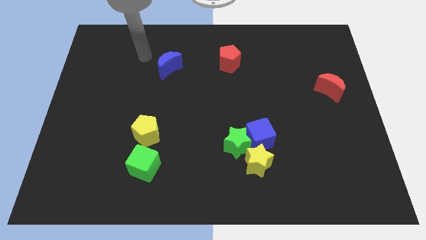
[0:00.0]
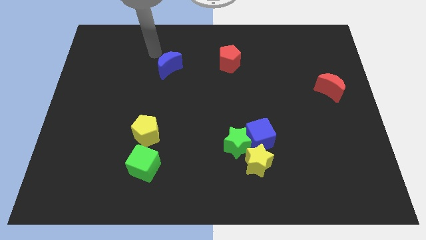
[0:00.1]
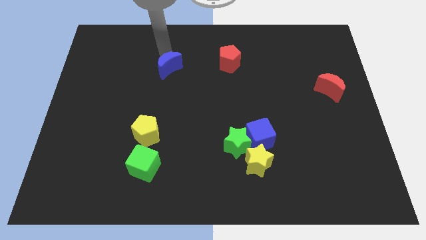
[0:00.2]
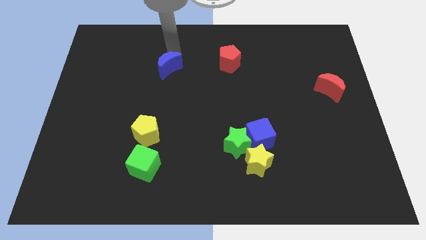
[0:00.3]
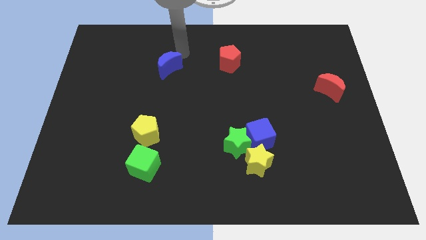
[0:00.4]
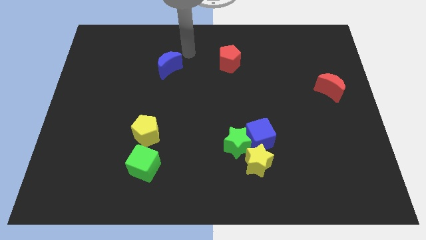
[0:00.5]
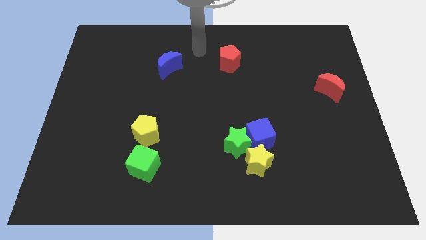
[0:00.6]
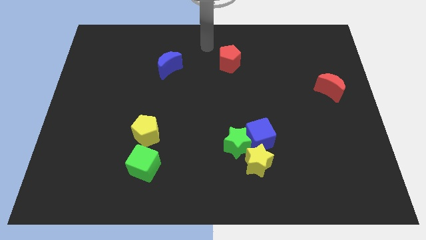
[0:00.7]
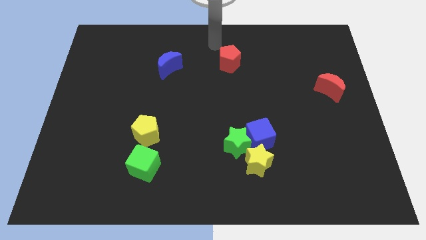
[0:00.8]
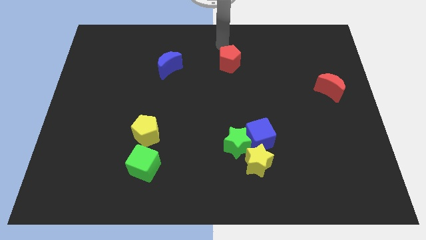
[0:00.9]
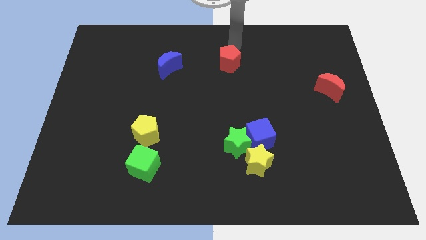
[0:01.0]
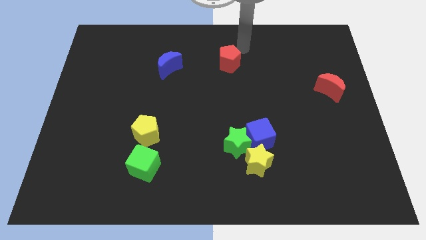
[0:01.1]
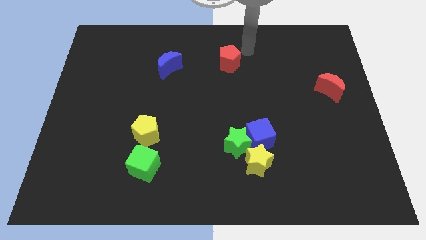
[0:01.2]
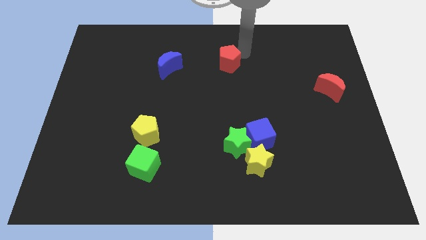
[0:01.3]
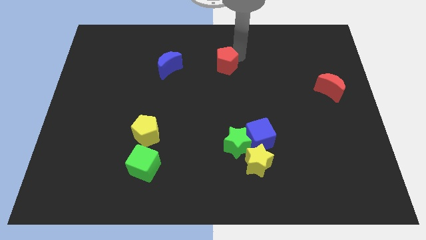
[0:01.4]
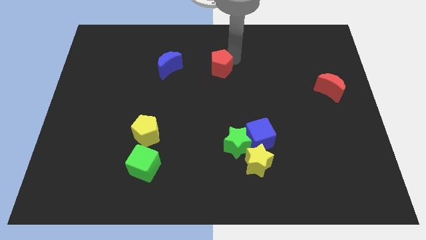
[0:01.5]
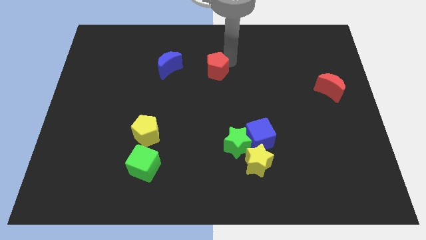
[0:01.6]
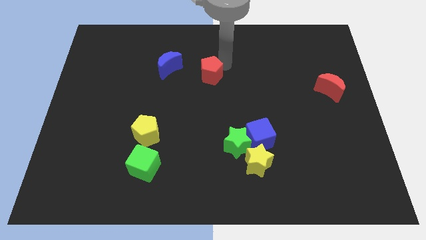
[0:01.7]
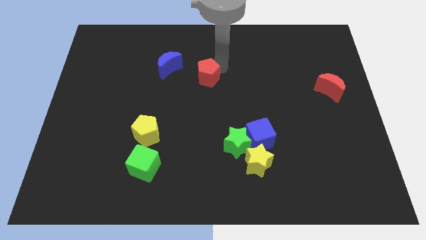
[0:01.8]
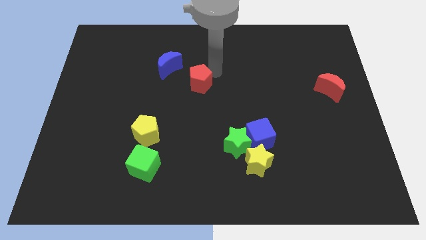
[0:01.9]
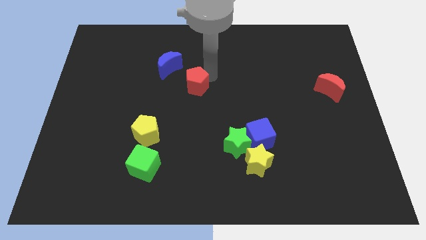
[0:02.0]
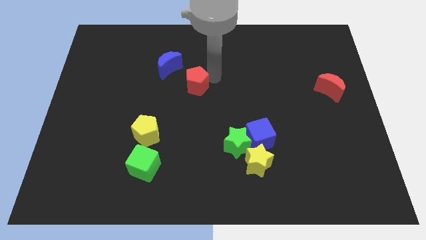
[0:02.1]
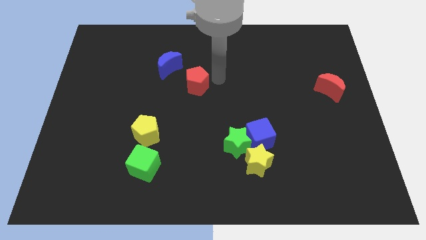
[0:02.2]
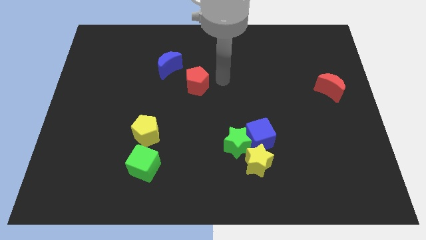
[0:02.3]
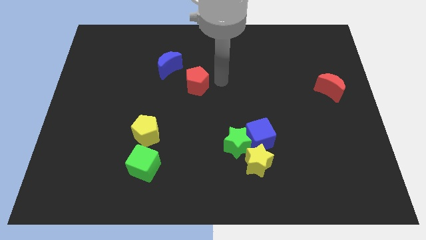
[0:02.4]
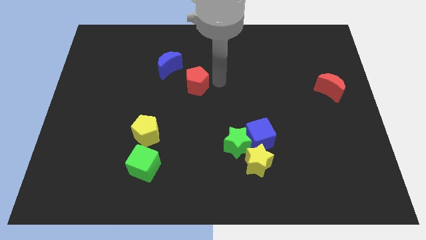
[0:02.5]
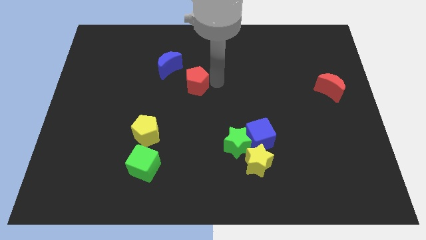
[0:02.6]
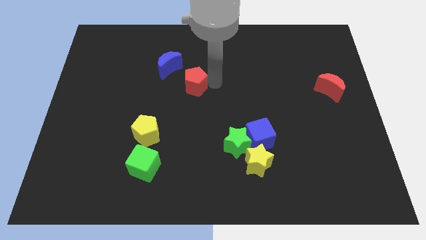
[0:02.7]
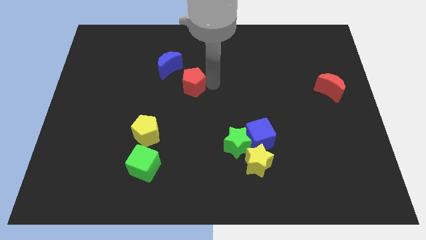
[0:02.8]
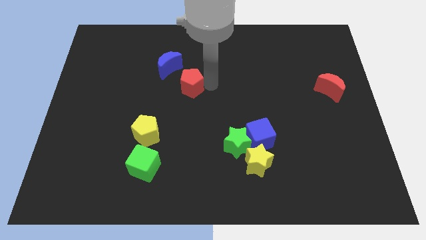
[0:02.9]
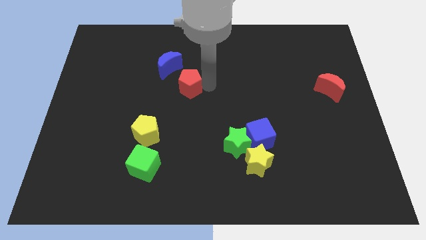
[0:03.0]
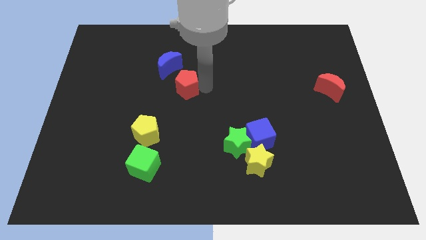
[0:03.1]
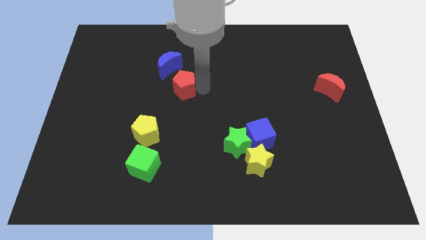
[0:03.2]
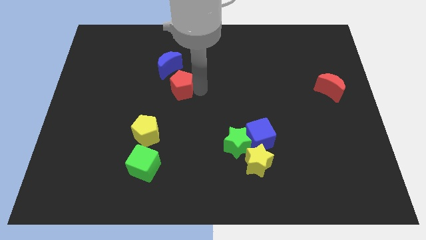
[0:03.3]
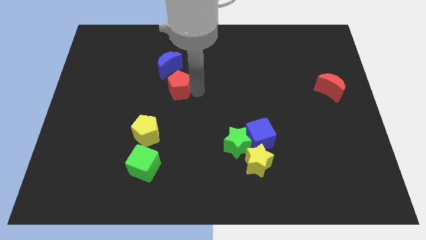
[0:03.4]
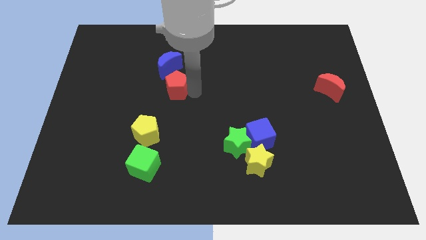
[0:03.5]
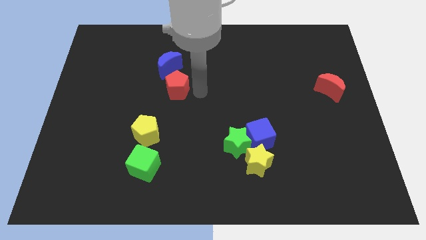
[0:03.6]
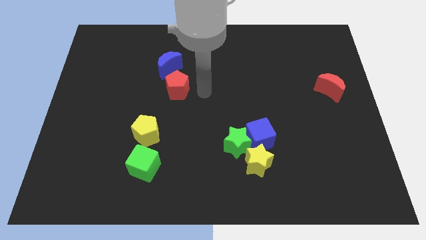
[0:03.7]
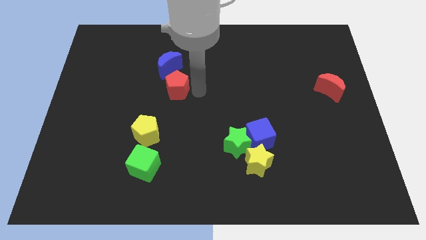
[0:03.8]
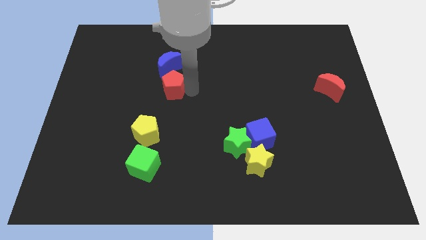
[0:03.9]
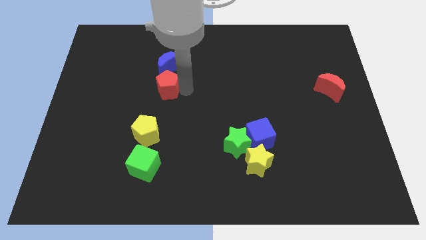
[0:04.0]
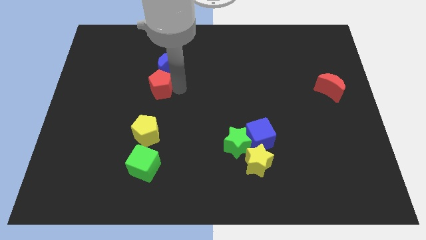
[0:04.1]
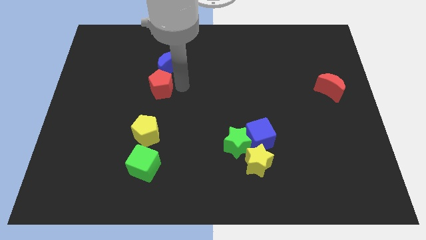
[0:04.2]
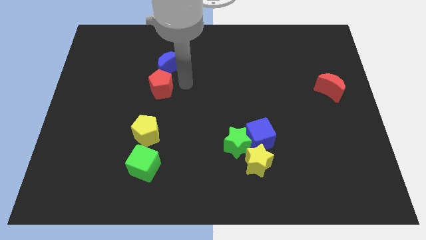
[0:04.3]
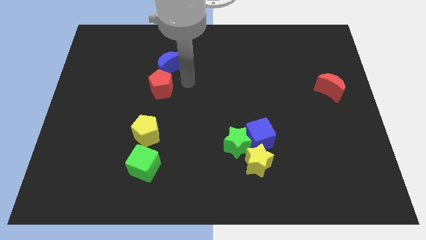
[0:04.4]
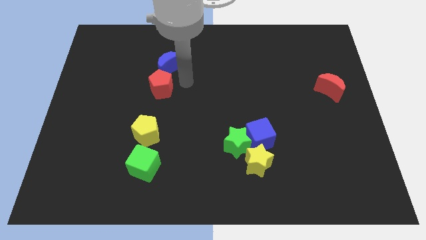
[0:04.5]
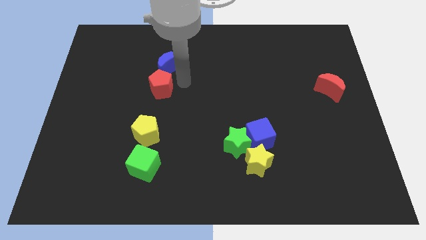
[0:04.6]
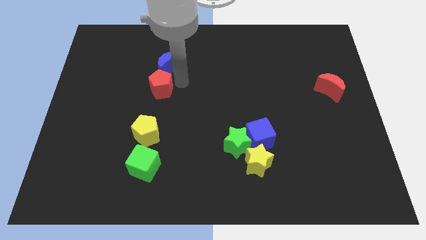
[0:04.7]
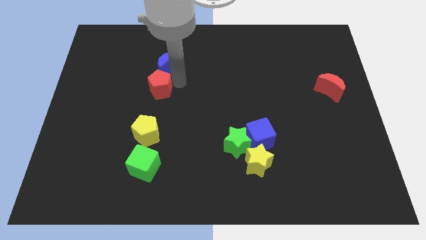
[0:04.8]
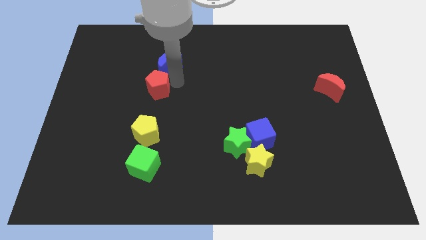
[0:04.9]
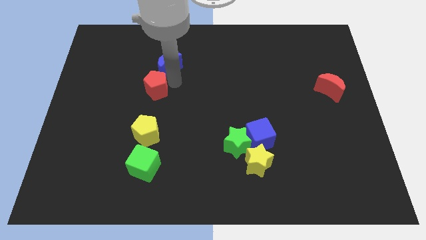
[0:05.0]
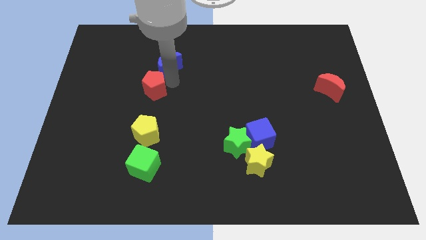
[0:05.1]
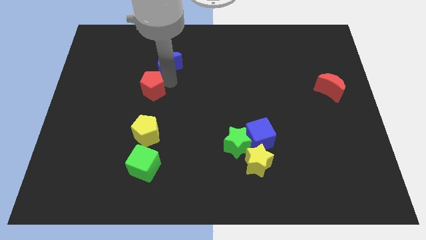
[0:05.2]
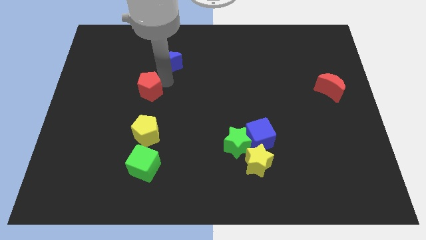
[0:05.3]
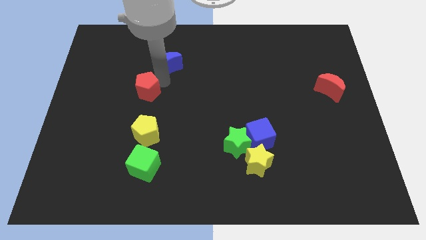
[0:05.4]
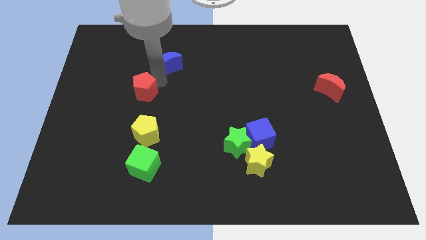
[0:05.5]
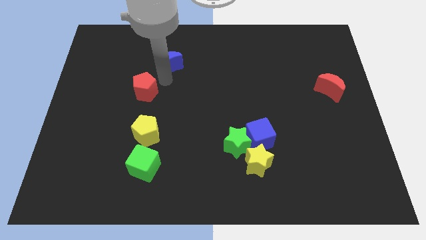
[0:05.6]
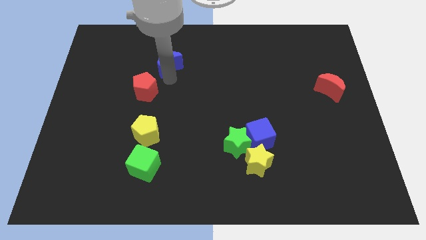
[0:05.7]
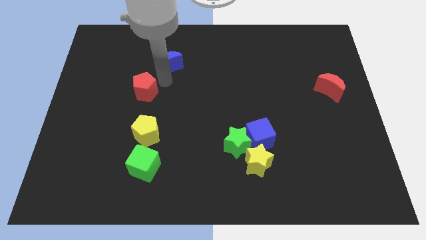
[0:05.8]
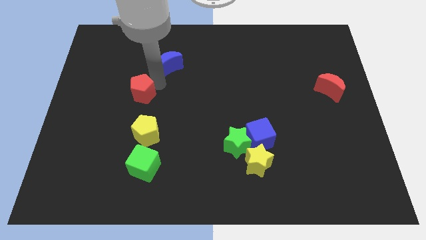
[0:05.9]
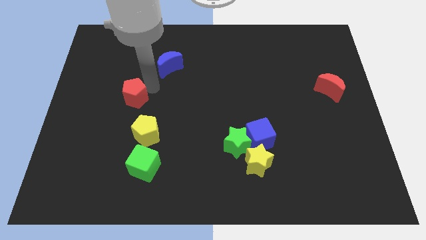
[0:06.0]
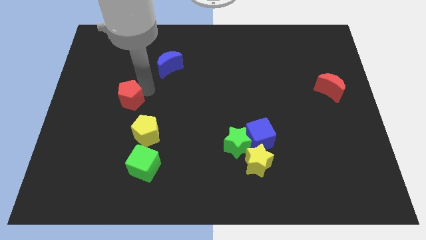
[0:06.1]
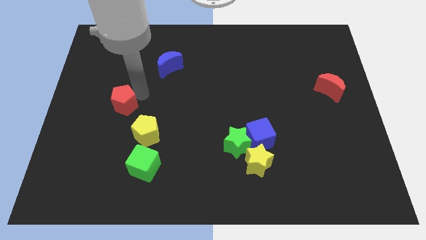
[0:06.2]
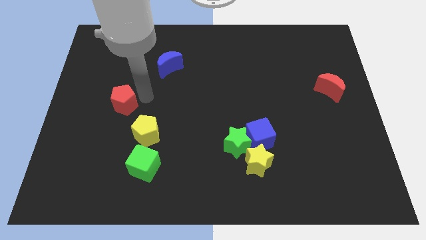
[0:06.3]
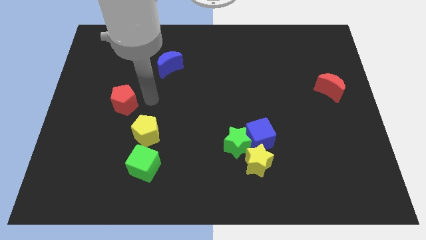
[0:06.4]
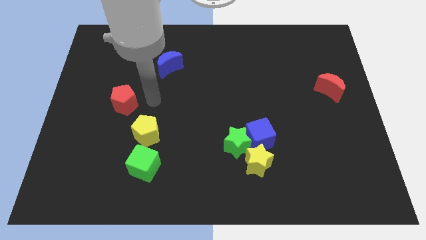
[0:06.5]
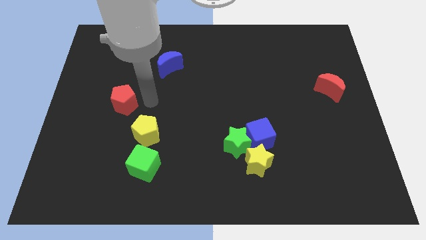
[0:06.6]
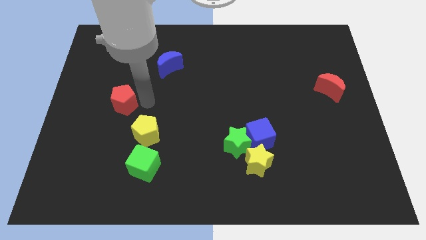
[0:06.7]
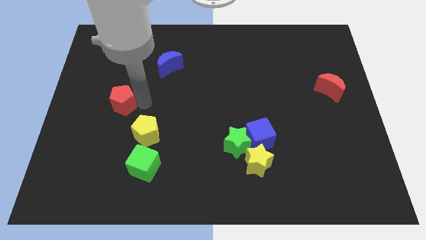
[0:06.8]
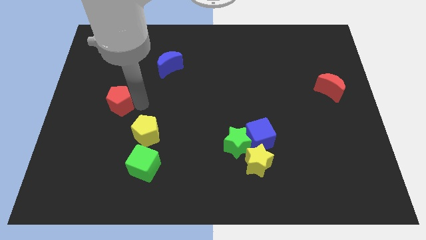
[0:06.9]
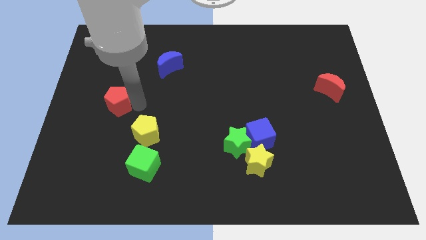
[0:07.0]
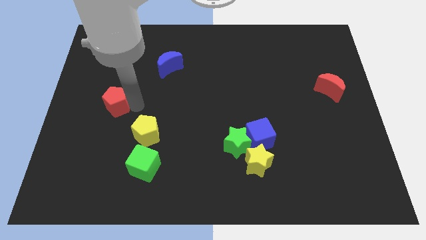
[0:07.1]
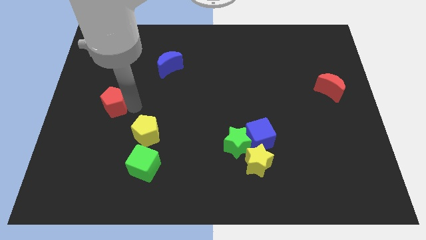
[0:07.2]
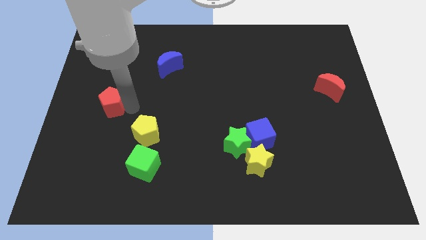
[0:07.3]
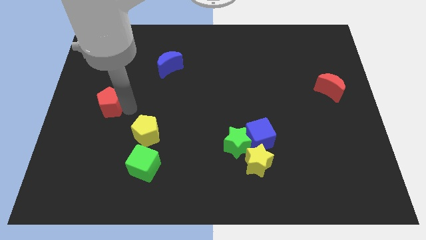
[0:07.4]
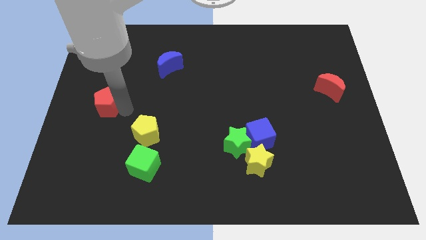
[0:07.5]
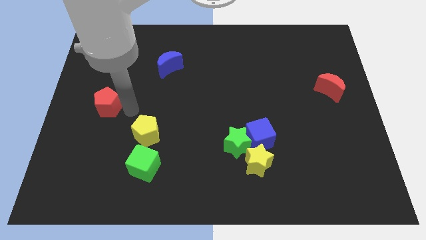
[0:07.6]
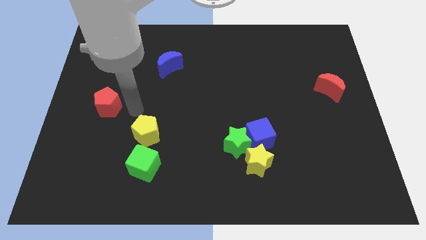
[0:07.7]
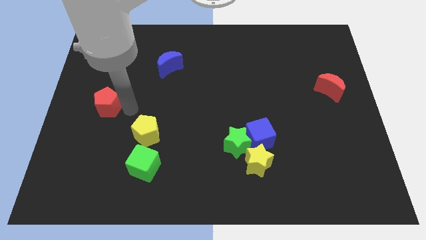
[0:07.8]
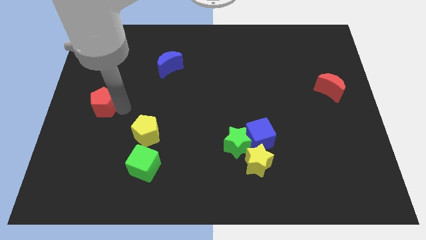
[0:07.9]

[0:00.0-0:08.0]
push the red pentagon to the left side of the board
